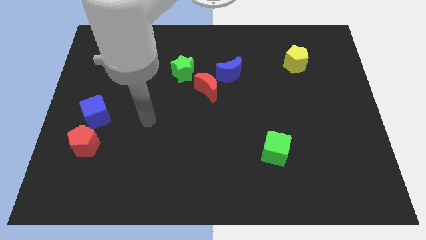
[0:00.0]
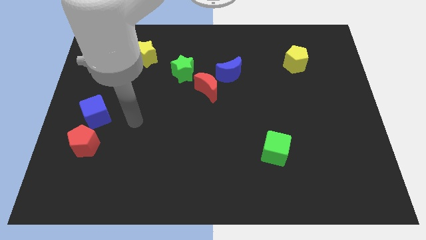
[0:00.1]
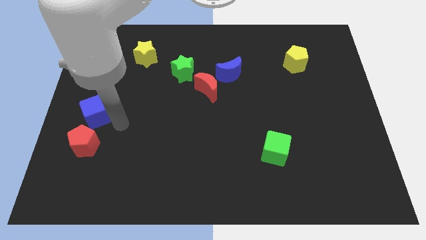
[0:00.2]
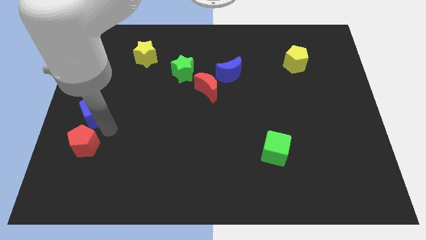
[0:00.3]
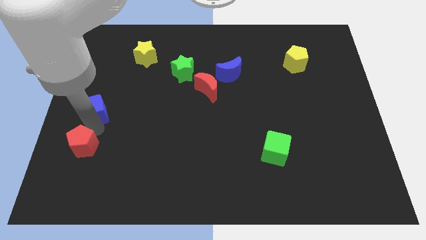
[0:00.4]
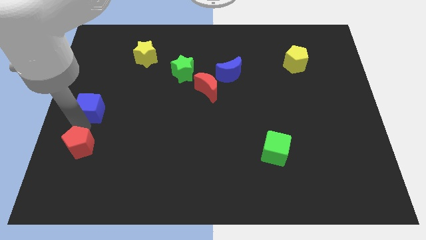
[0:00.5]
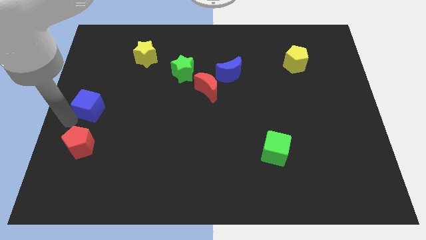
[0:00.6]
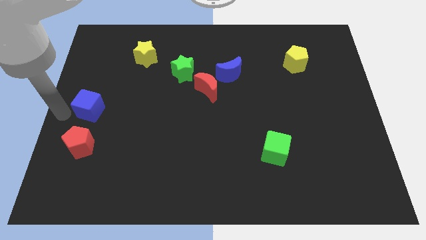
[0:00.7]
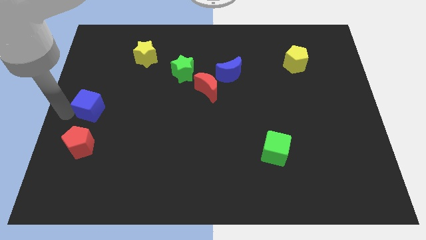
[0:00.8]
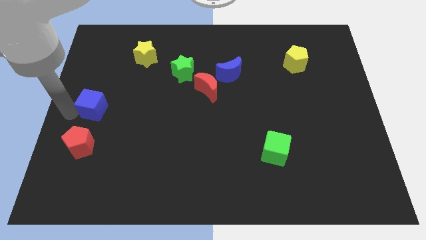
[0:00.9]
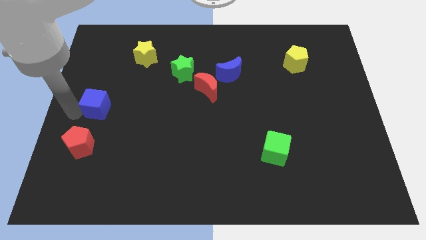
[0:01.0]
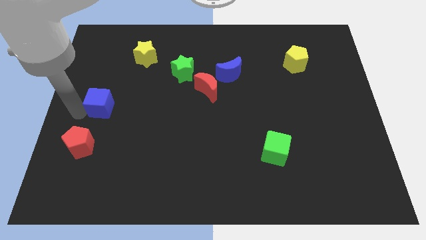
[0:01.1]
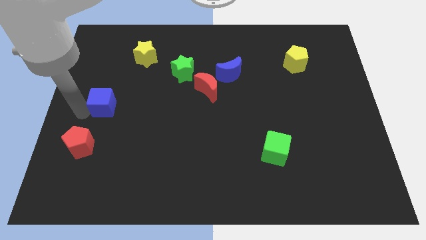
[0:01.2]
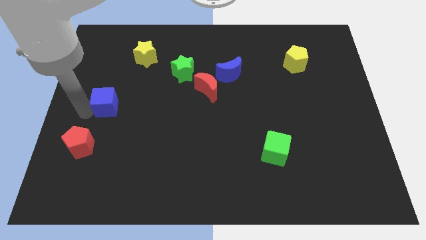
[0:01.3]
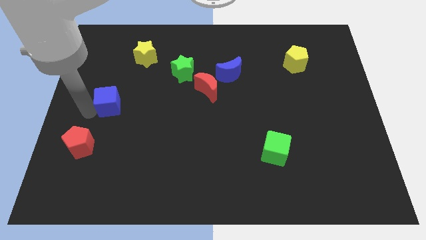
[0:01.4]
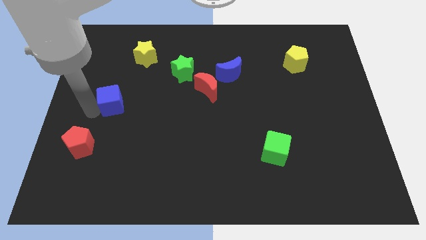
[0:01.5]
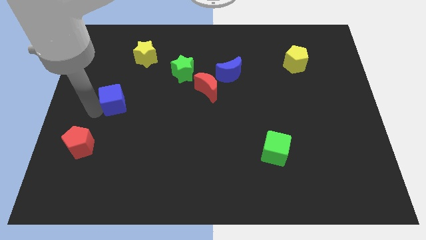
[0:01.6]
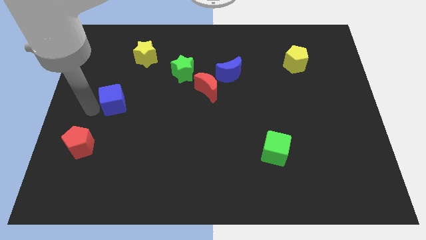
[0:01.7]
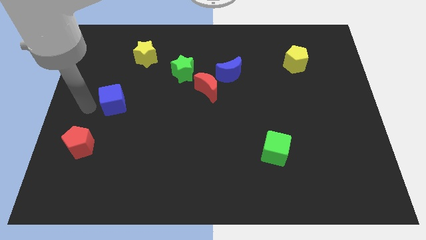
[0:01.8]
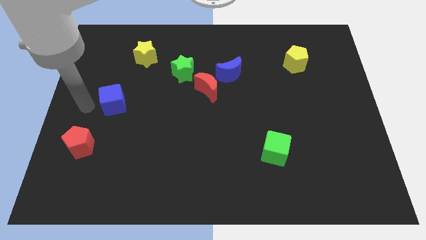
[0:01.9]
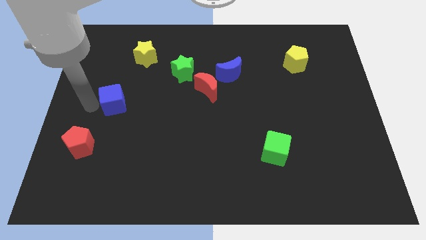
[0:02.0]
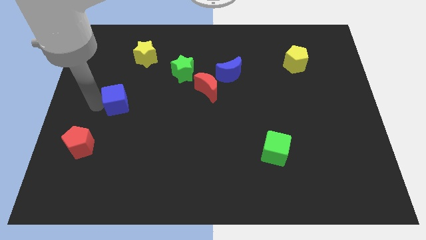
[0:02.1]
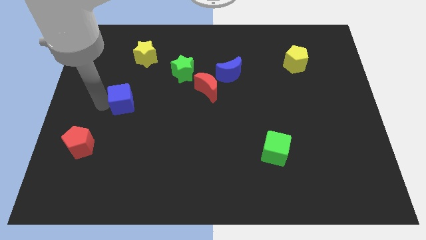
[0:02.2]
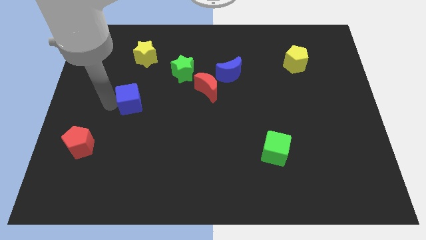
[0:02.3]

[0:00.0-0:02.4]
slightly push the blue cube upwards and then right

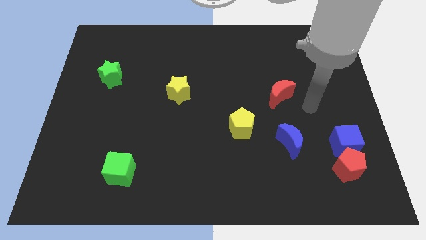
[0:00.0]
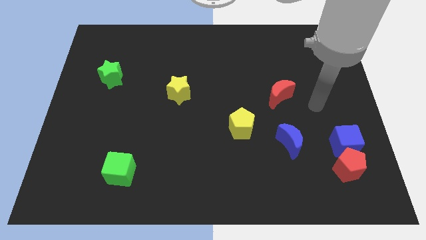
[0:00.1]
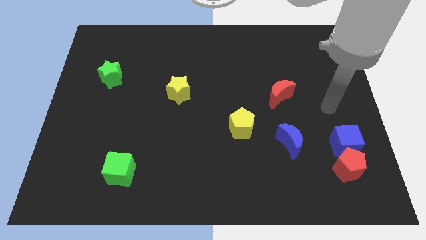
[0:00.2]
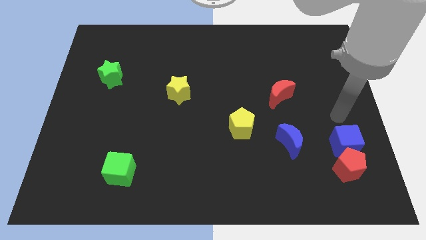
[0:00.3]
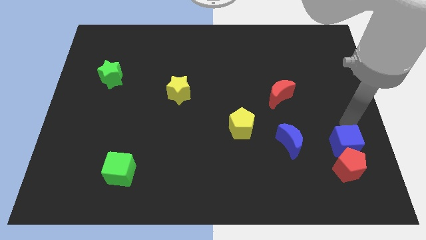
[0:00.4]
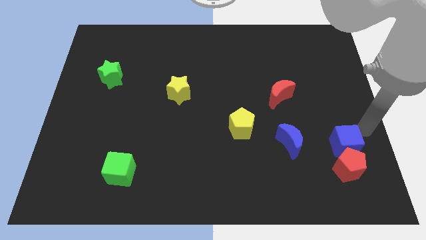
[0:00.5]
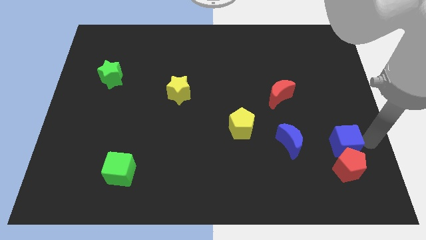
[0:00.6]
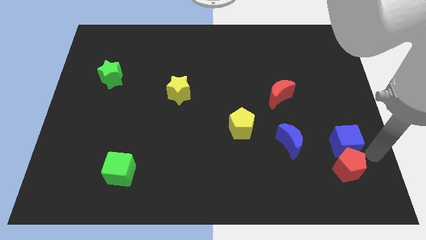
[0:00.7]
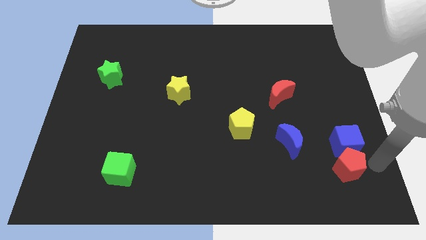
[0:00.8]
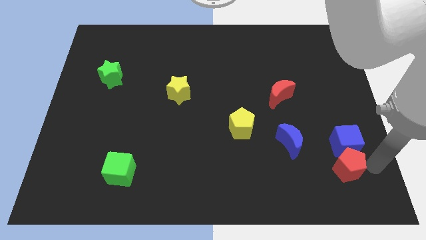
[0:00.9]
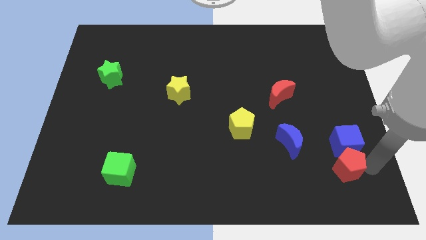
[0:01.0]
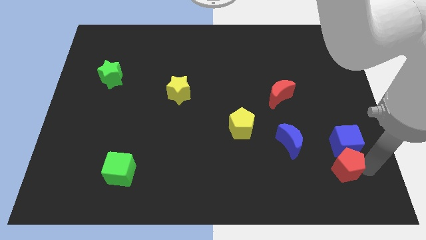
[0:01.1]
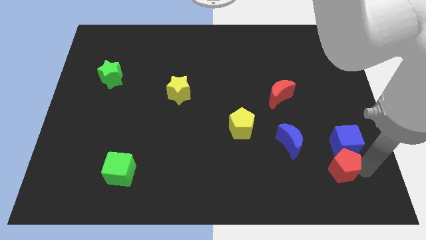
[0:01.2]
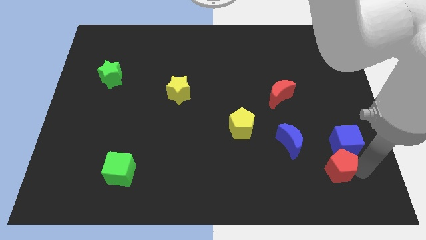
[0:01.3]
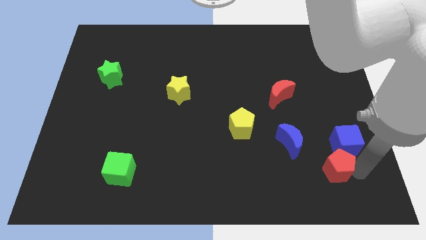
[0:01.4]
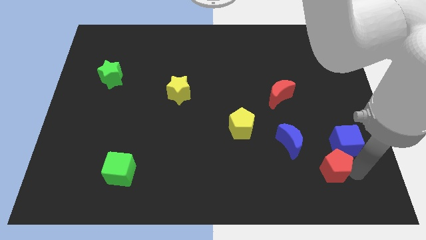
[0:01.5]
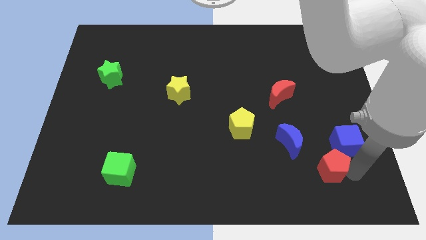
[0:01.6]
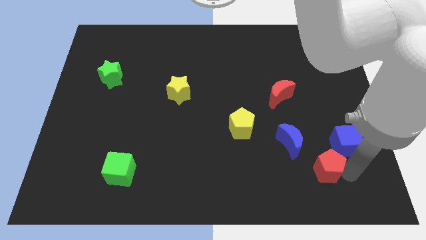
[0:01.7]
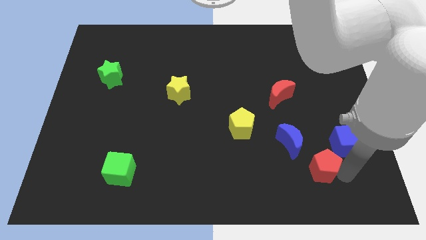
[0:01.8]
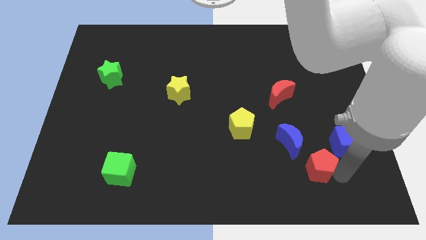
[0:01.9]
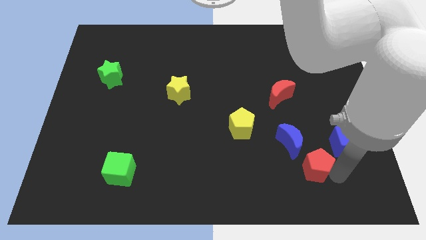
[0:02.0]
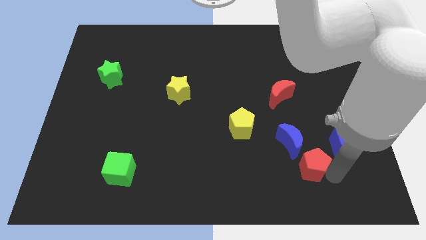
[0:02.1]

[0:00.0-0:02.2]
push the red pentagon slightly to the left

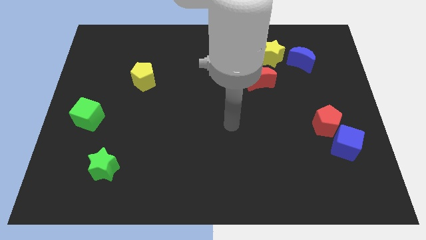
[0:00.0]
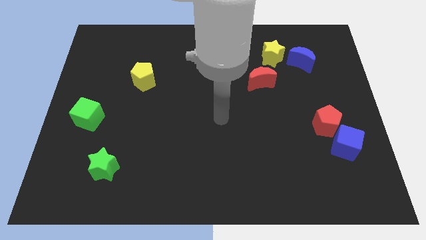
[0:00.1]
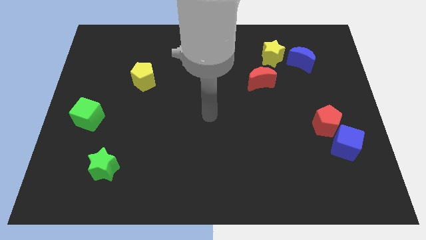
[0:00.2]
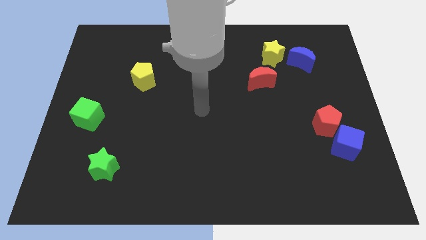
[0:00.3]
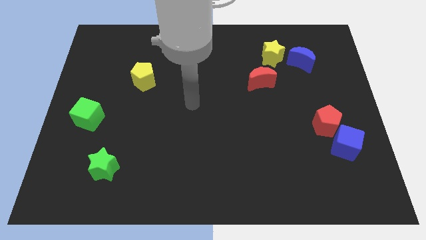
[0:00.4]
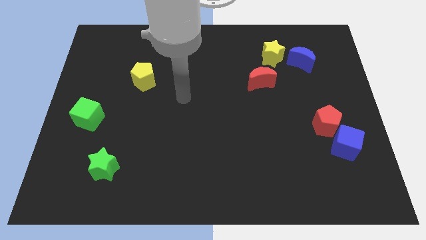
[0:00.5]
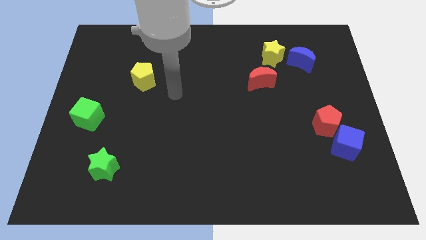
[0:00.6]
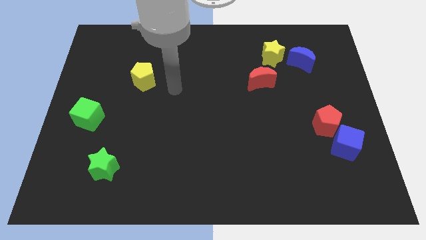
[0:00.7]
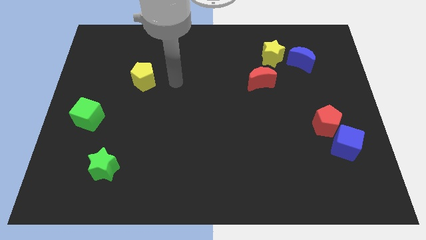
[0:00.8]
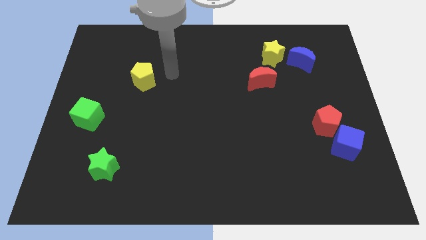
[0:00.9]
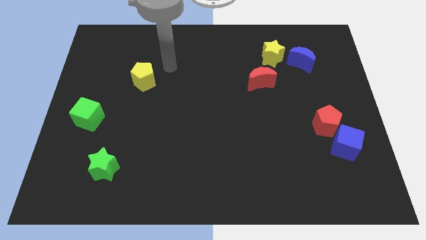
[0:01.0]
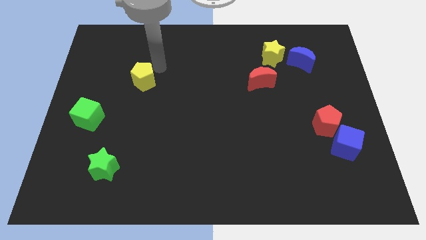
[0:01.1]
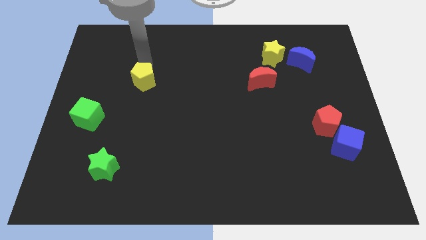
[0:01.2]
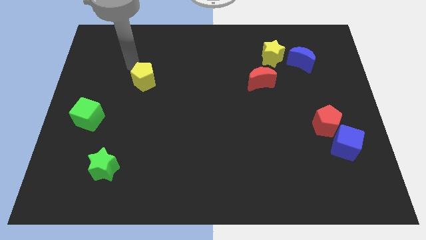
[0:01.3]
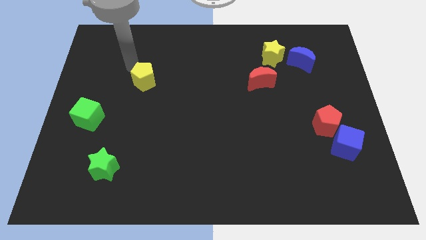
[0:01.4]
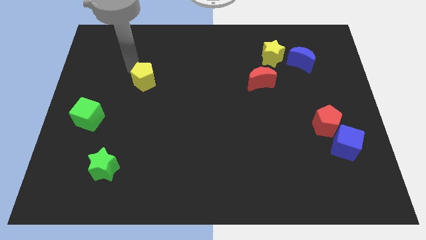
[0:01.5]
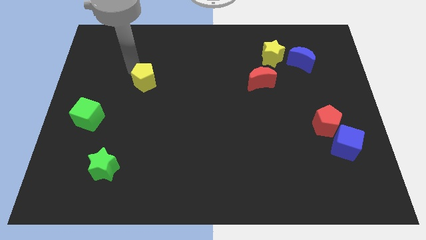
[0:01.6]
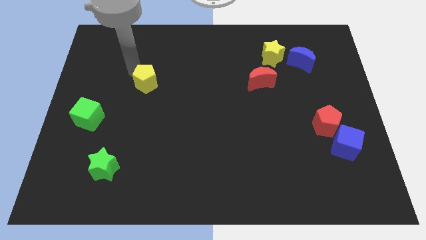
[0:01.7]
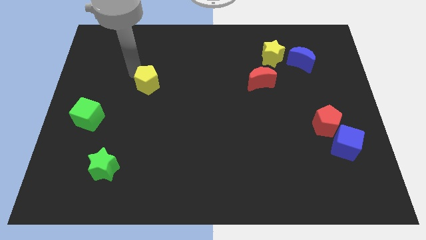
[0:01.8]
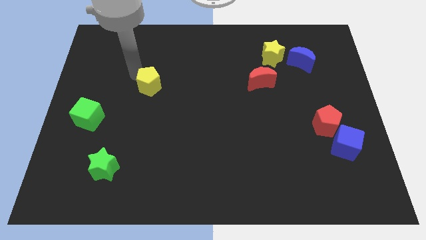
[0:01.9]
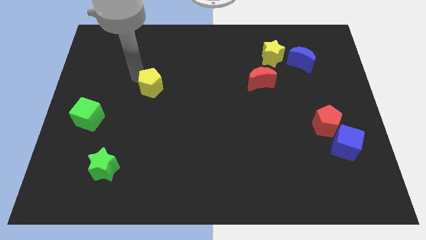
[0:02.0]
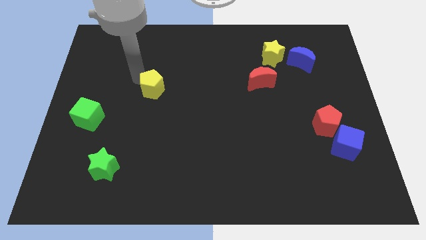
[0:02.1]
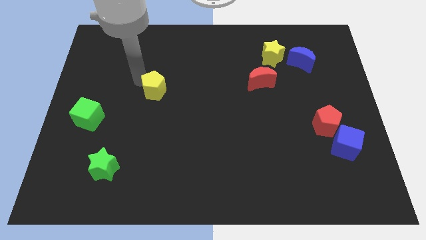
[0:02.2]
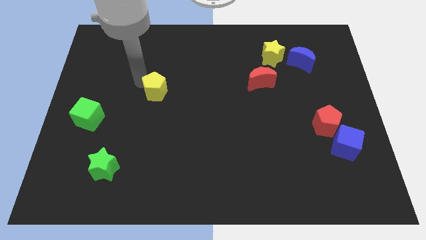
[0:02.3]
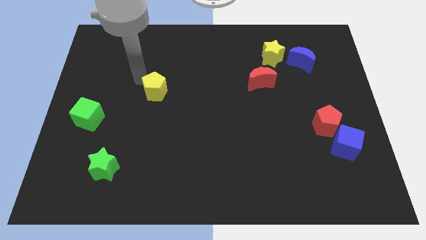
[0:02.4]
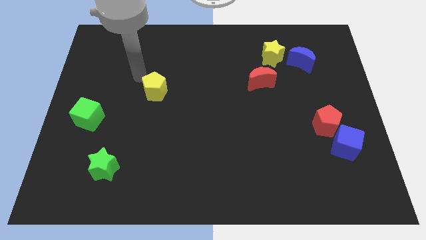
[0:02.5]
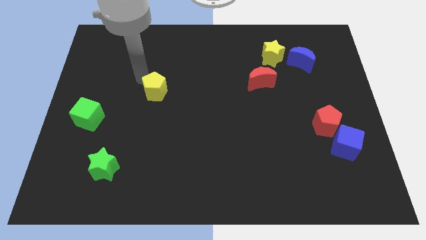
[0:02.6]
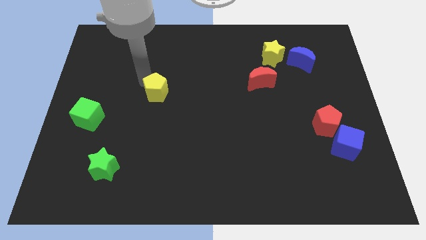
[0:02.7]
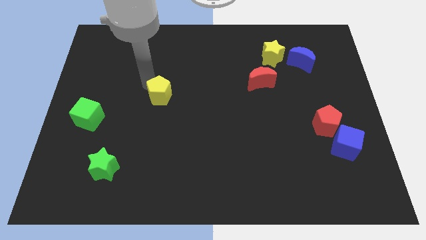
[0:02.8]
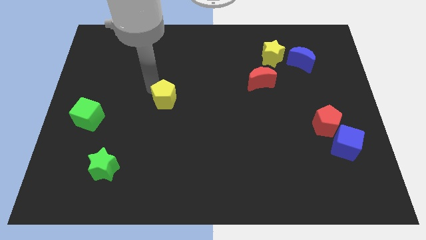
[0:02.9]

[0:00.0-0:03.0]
slide the yellow pentagon somewhat diagonally down and to the right

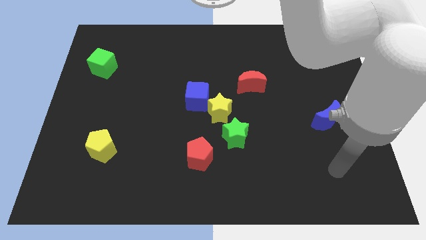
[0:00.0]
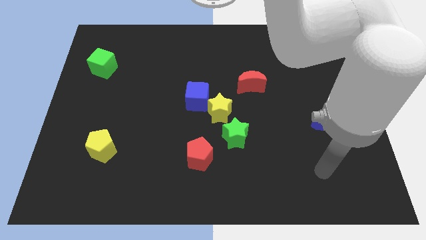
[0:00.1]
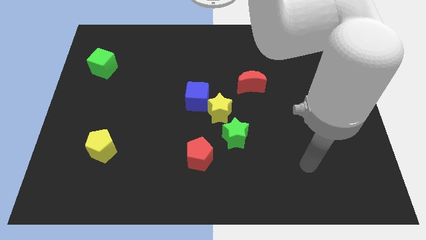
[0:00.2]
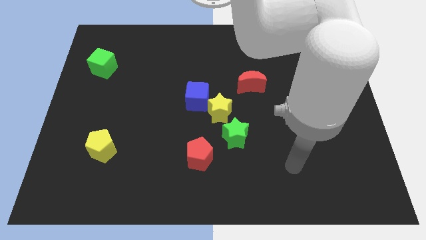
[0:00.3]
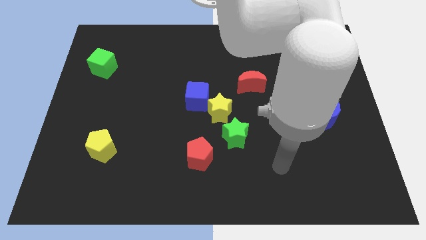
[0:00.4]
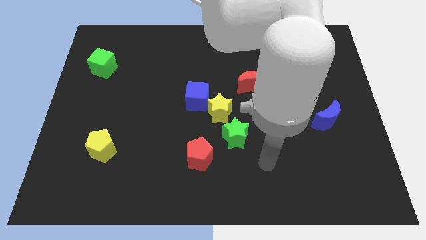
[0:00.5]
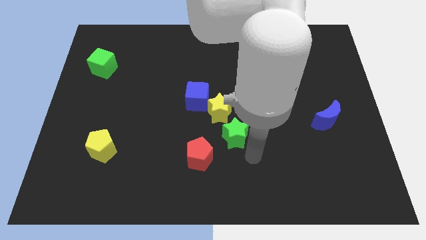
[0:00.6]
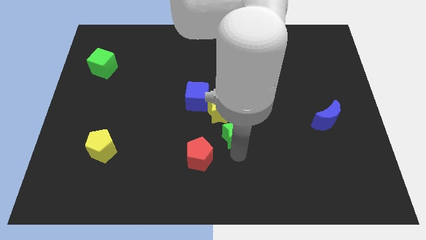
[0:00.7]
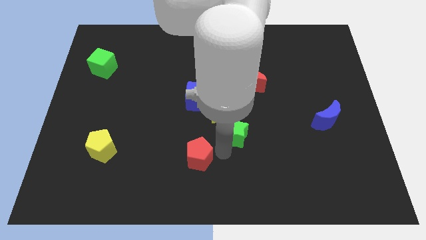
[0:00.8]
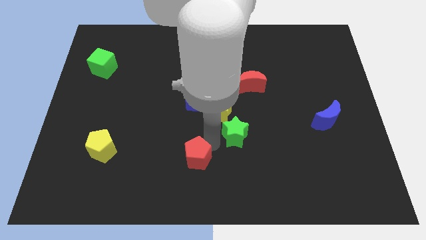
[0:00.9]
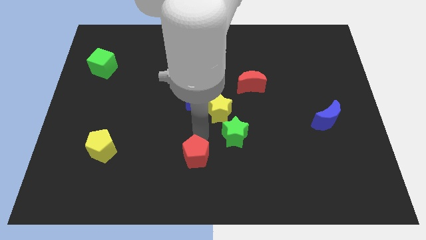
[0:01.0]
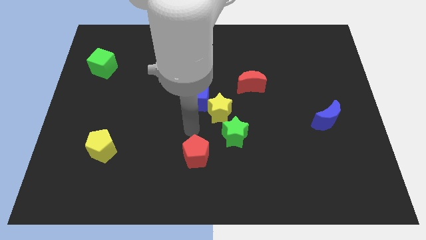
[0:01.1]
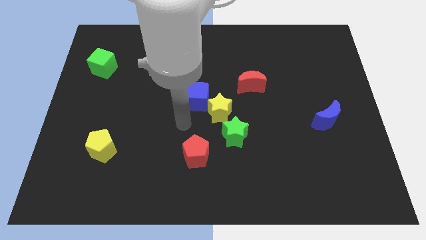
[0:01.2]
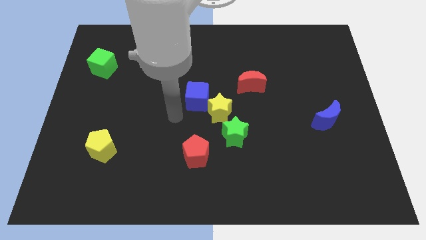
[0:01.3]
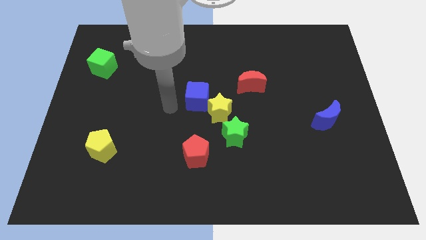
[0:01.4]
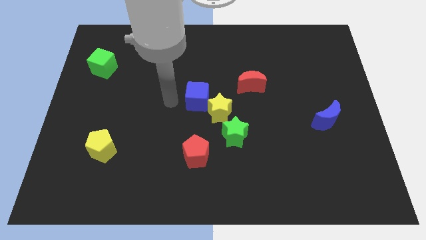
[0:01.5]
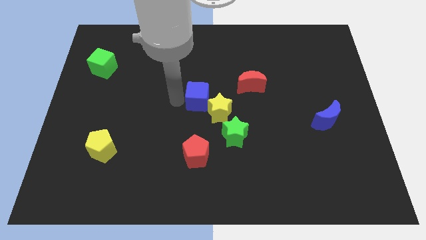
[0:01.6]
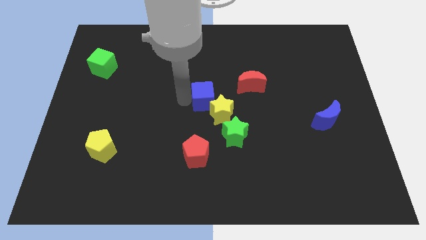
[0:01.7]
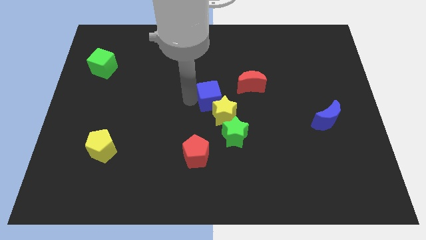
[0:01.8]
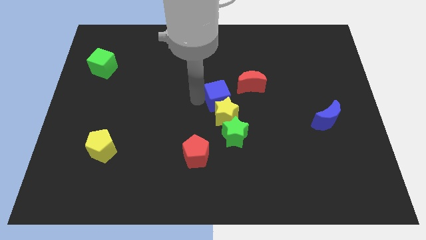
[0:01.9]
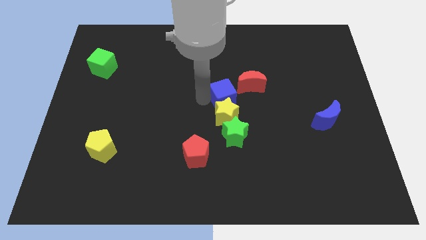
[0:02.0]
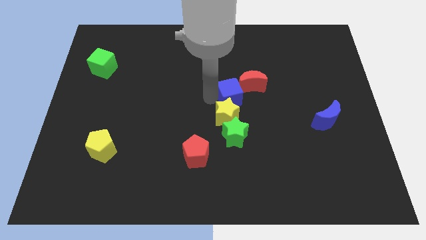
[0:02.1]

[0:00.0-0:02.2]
move the blue cube a bit to the right
